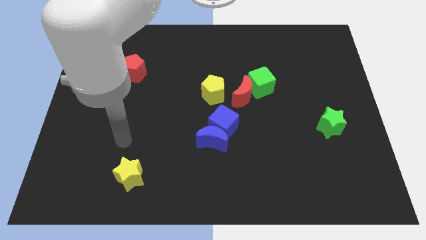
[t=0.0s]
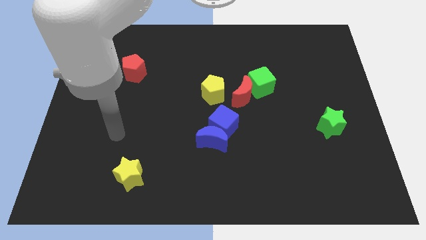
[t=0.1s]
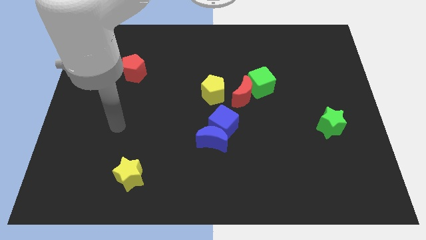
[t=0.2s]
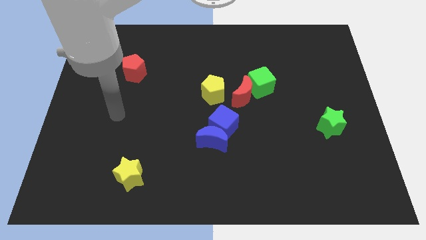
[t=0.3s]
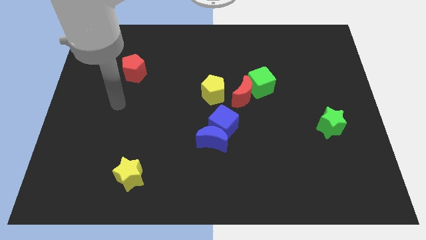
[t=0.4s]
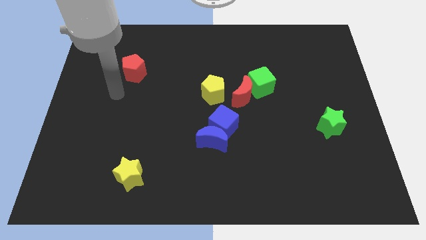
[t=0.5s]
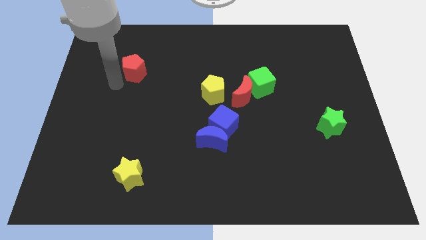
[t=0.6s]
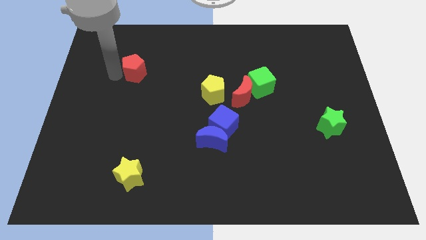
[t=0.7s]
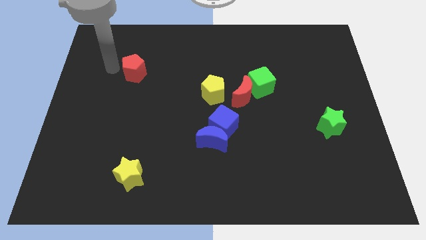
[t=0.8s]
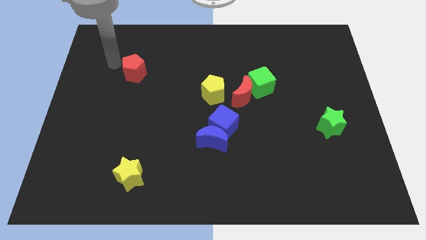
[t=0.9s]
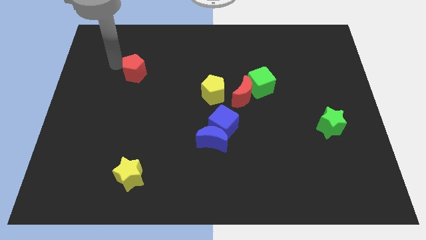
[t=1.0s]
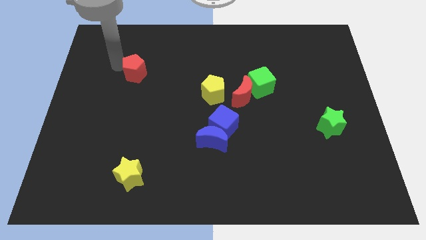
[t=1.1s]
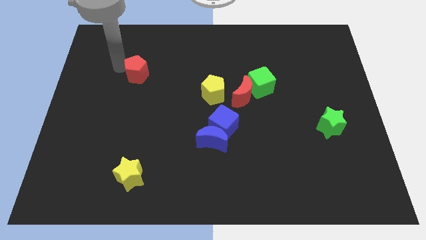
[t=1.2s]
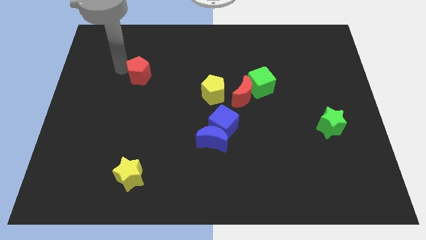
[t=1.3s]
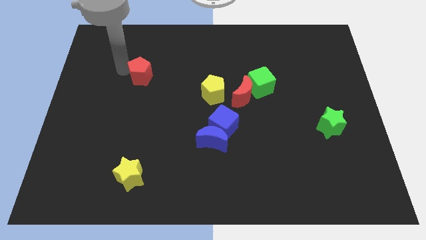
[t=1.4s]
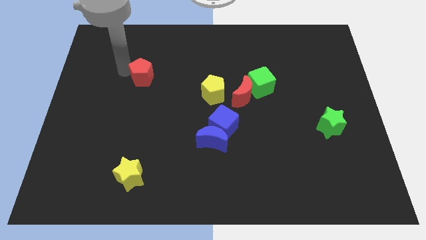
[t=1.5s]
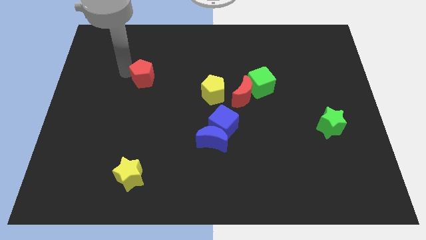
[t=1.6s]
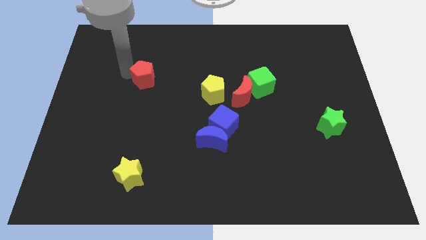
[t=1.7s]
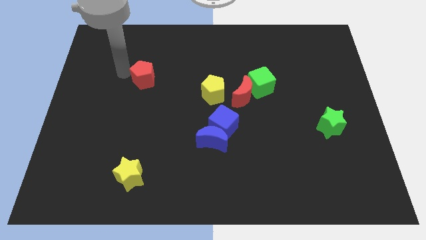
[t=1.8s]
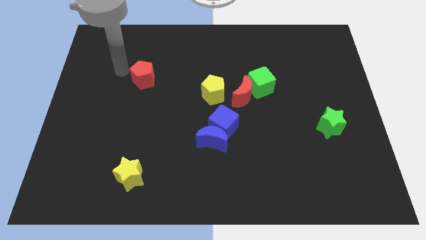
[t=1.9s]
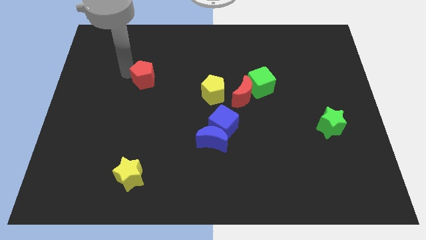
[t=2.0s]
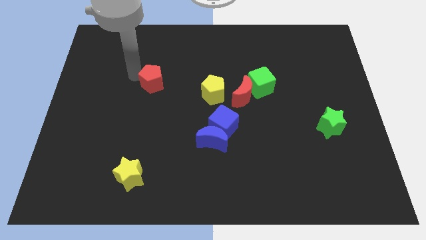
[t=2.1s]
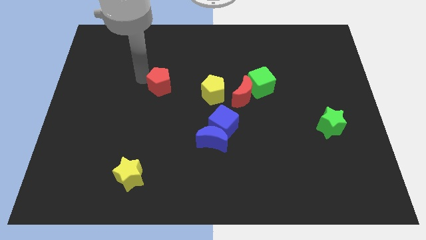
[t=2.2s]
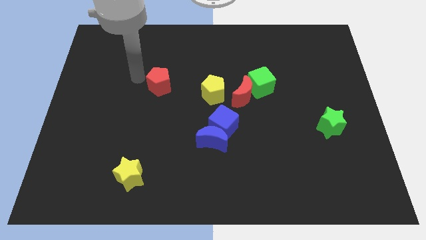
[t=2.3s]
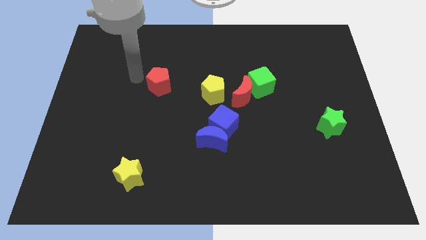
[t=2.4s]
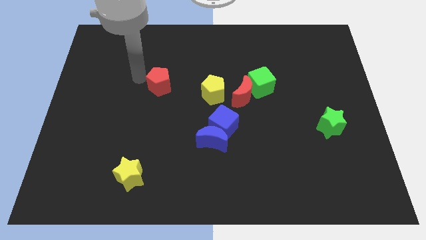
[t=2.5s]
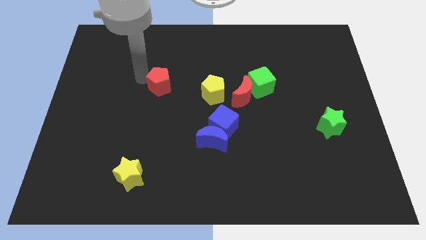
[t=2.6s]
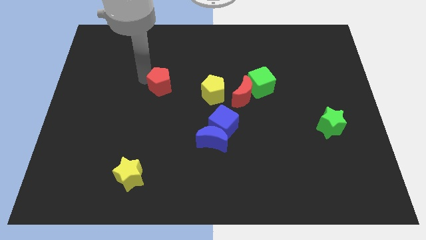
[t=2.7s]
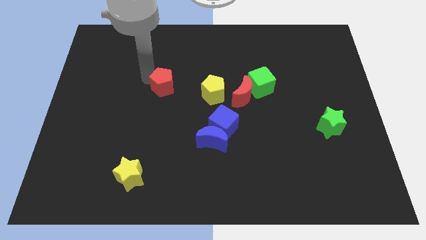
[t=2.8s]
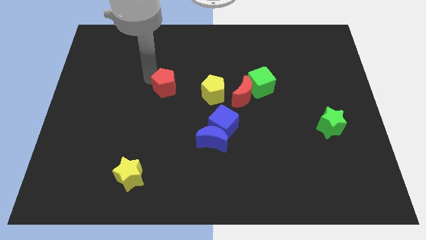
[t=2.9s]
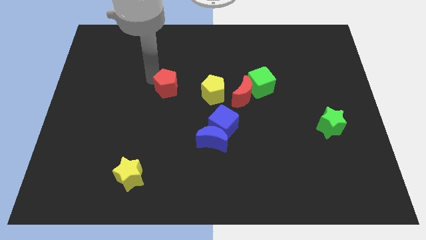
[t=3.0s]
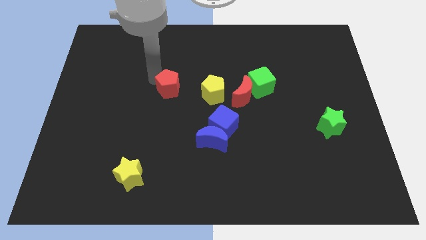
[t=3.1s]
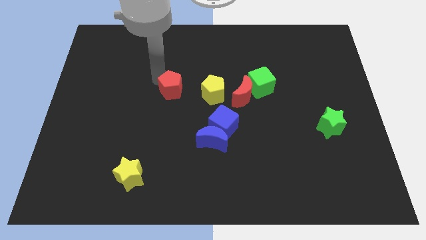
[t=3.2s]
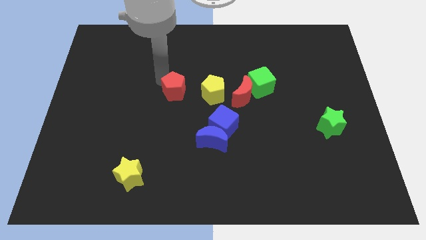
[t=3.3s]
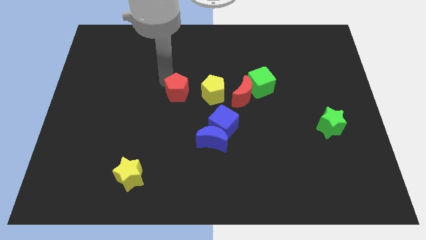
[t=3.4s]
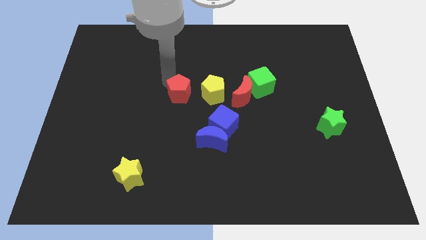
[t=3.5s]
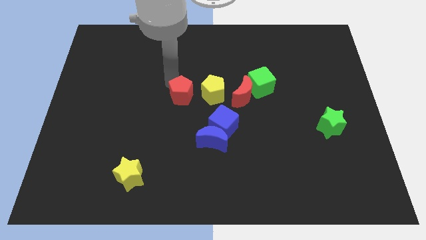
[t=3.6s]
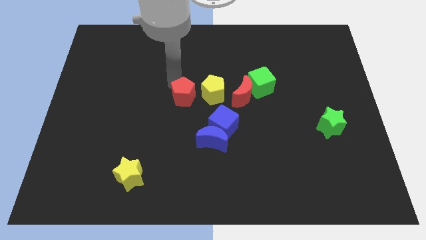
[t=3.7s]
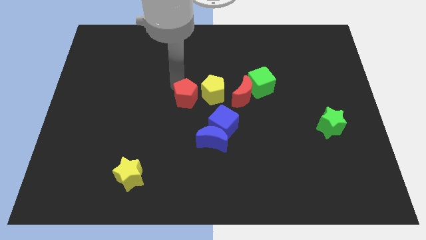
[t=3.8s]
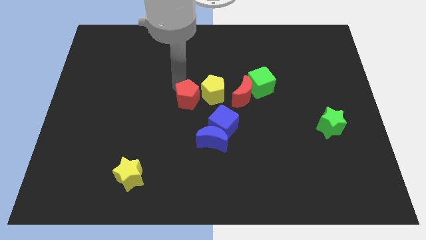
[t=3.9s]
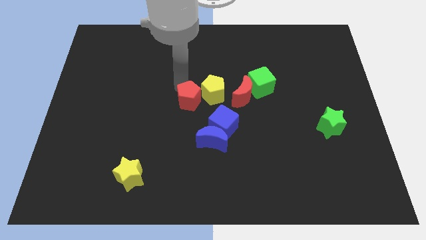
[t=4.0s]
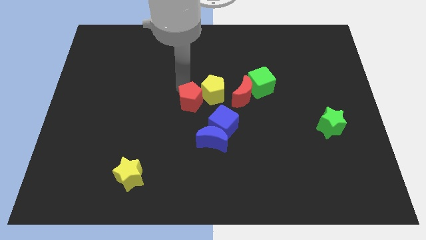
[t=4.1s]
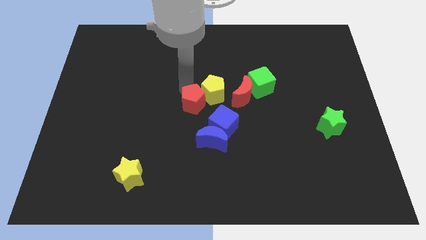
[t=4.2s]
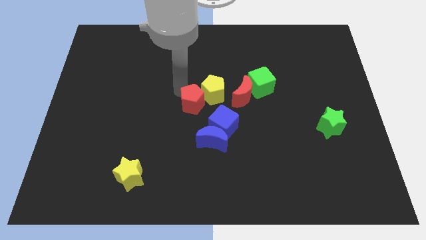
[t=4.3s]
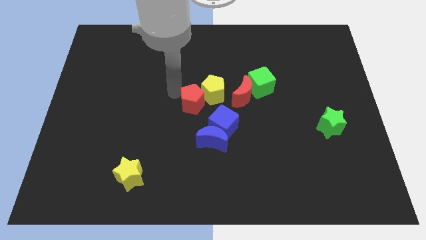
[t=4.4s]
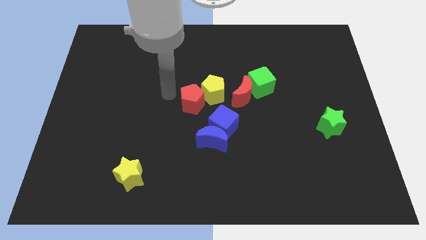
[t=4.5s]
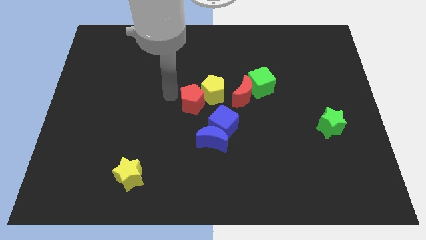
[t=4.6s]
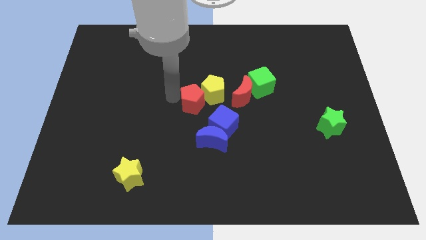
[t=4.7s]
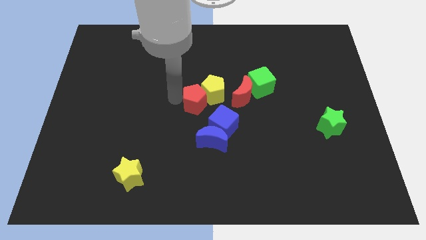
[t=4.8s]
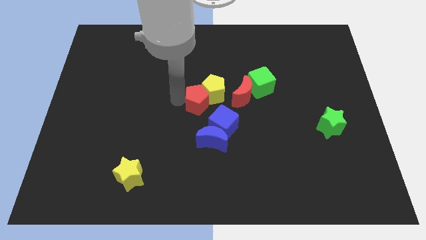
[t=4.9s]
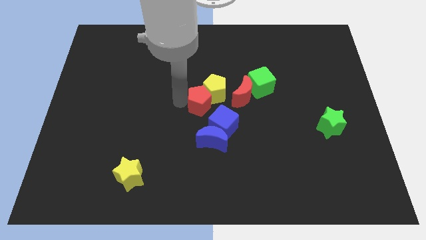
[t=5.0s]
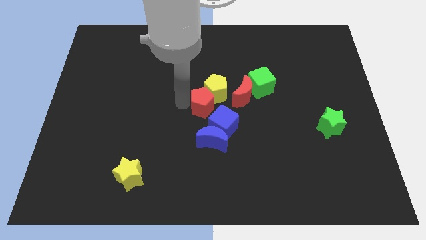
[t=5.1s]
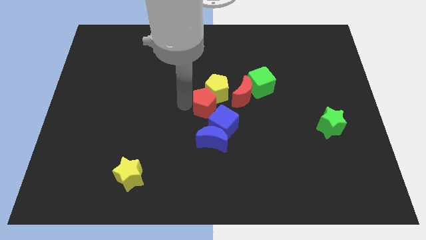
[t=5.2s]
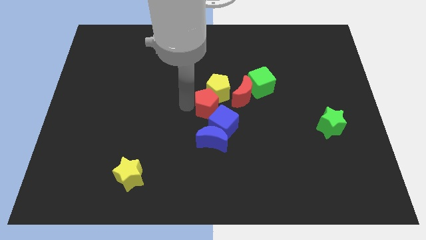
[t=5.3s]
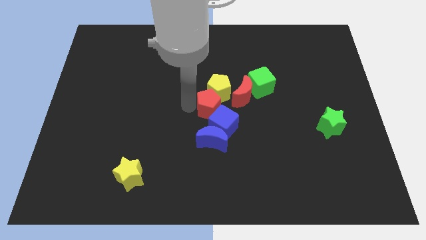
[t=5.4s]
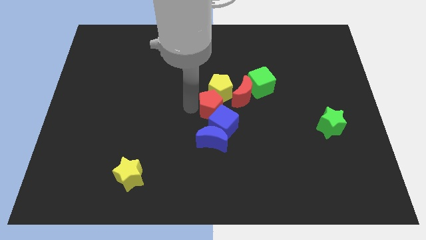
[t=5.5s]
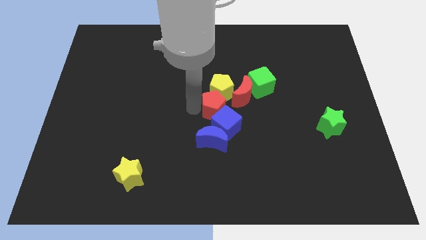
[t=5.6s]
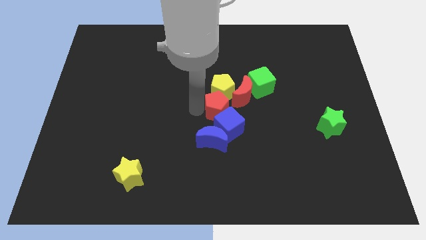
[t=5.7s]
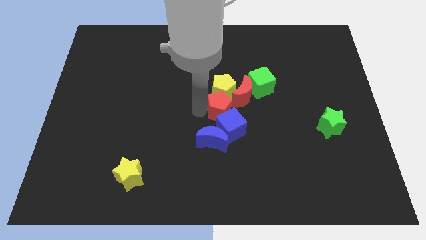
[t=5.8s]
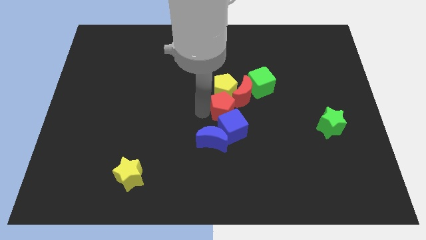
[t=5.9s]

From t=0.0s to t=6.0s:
slide the red pentagon to the top right side of the blue moon

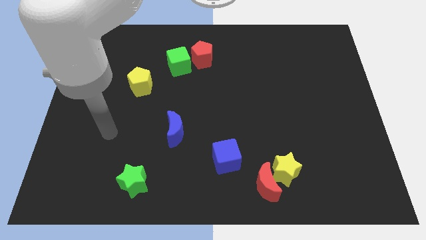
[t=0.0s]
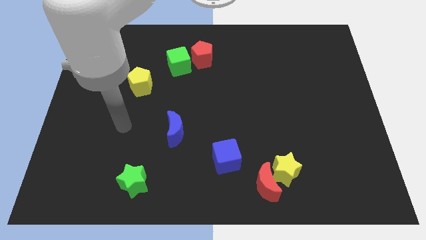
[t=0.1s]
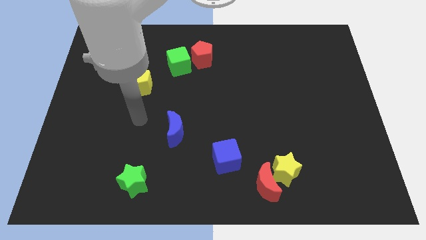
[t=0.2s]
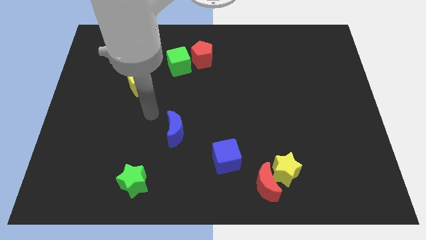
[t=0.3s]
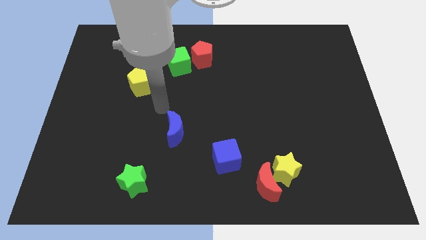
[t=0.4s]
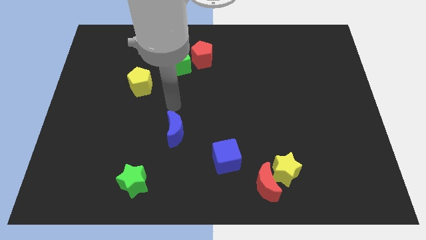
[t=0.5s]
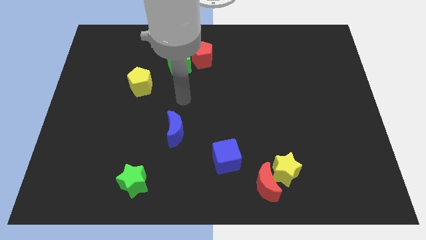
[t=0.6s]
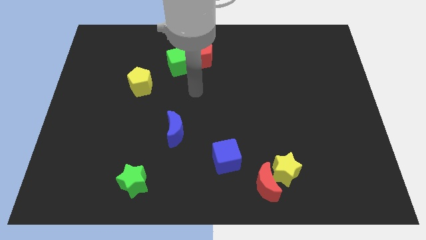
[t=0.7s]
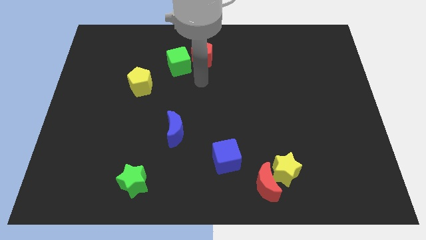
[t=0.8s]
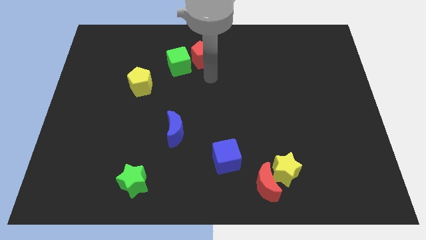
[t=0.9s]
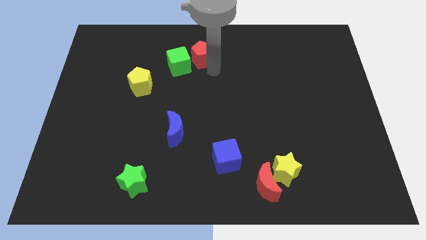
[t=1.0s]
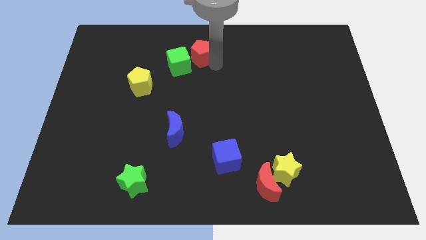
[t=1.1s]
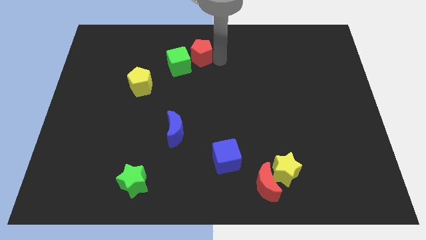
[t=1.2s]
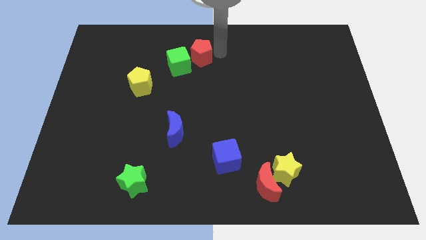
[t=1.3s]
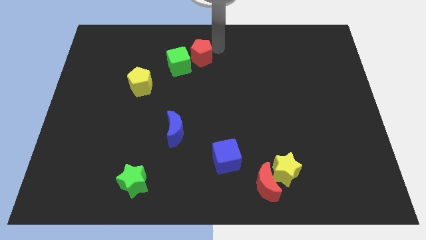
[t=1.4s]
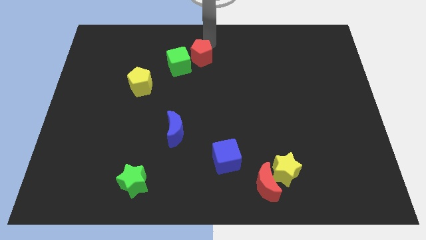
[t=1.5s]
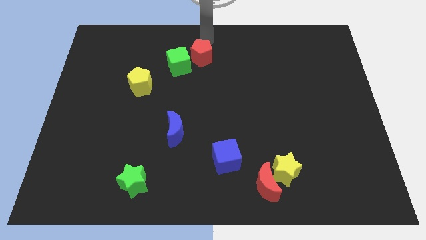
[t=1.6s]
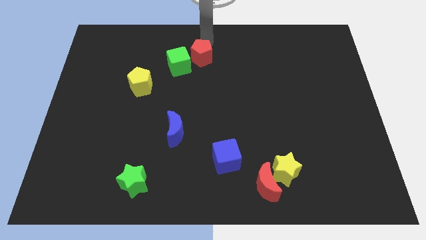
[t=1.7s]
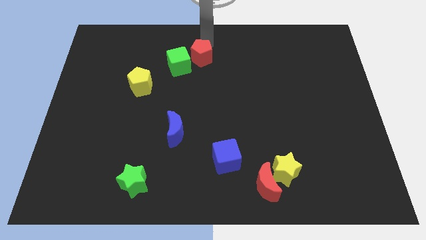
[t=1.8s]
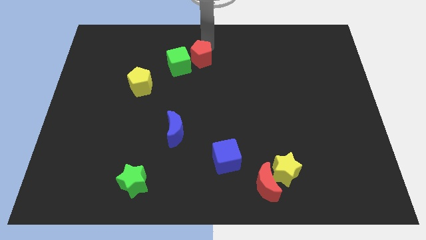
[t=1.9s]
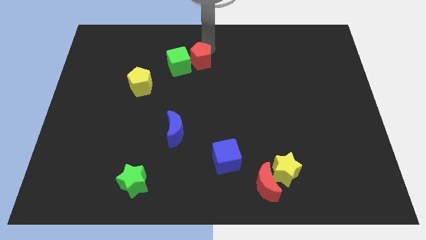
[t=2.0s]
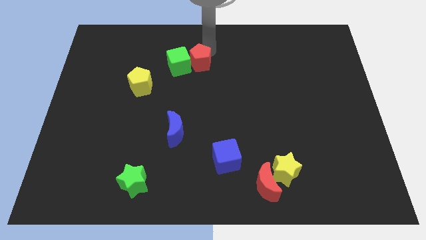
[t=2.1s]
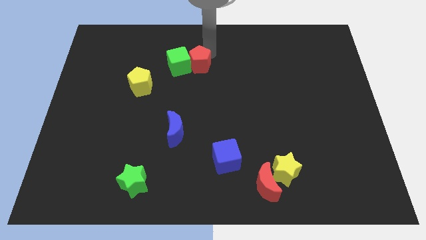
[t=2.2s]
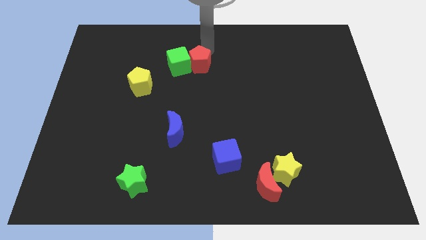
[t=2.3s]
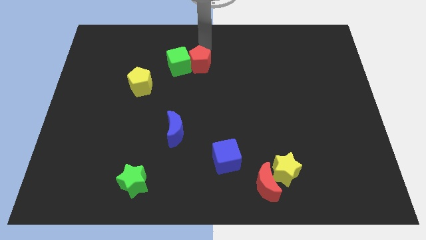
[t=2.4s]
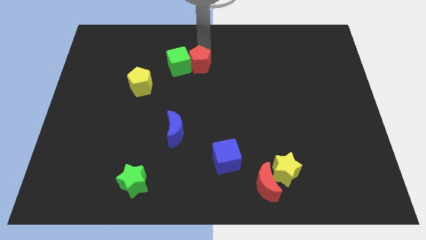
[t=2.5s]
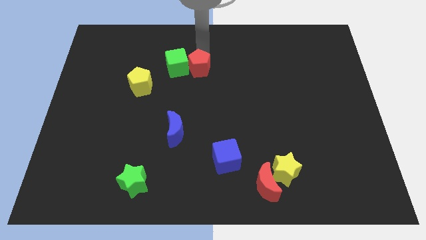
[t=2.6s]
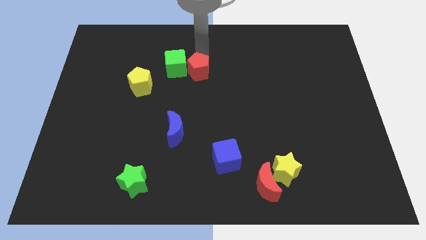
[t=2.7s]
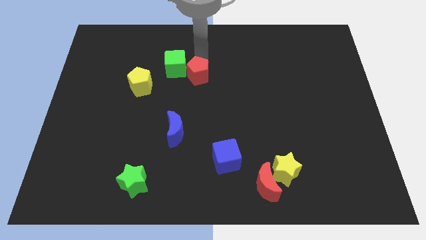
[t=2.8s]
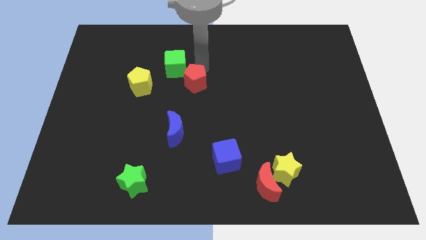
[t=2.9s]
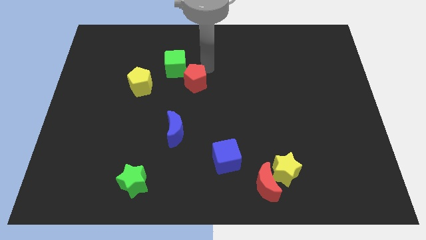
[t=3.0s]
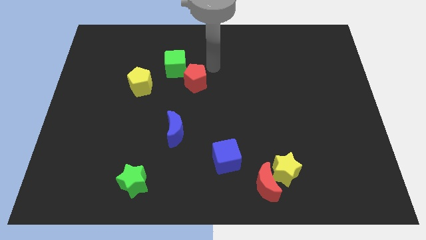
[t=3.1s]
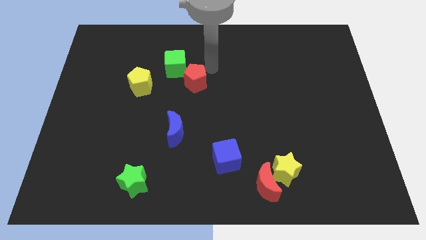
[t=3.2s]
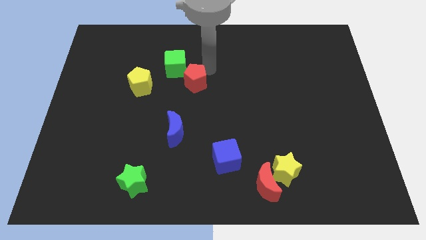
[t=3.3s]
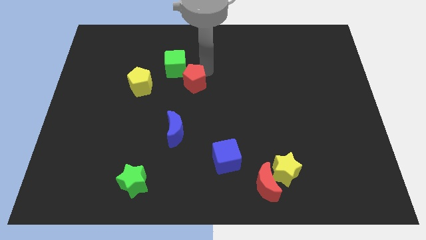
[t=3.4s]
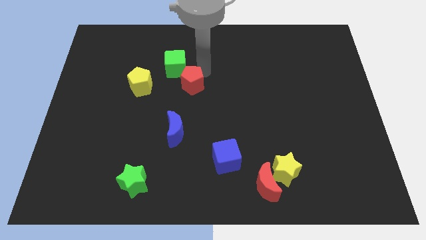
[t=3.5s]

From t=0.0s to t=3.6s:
push the red pentagon to the top of the blue moon
